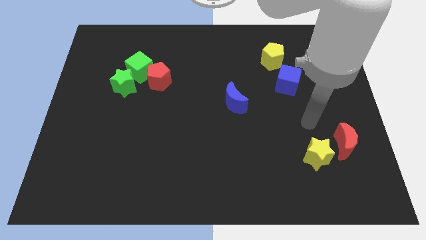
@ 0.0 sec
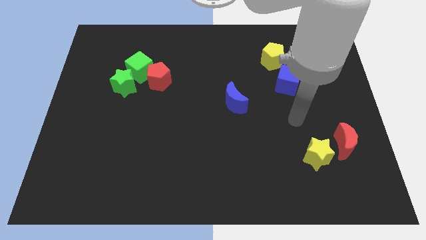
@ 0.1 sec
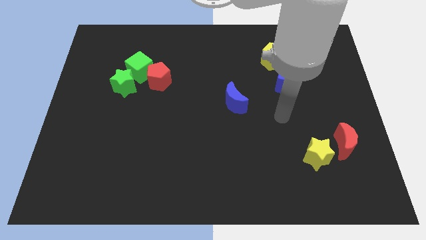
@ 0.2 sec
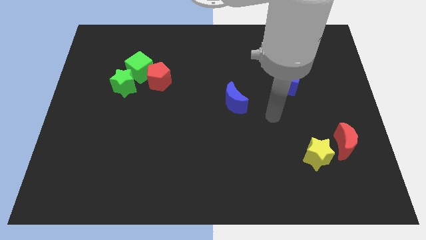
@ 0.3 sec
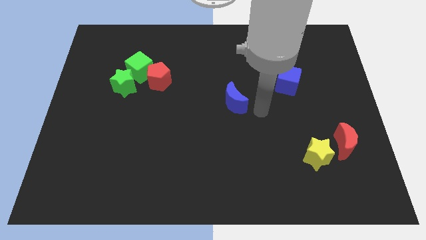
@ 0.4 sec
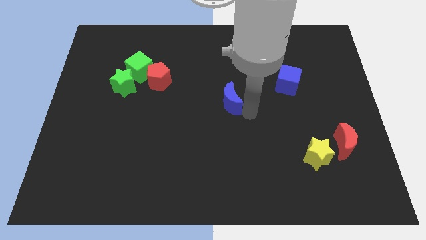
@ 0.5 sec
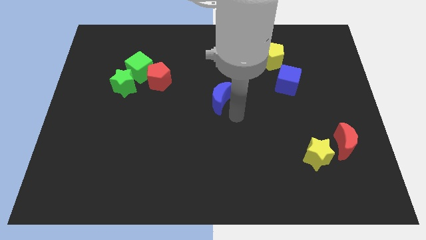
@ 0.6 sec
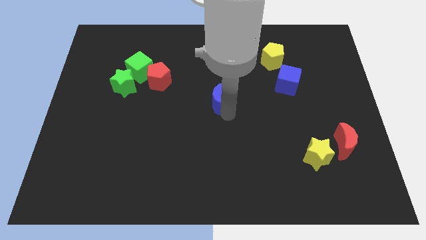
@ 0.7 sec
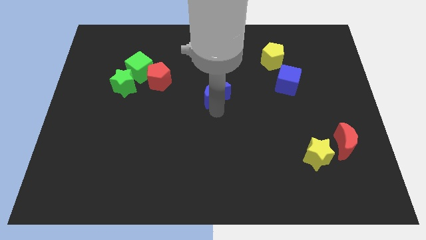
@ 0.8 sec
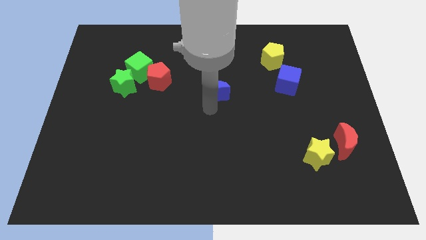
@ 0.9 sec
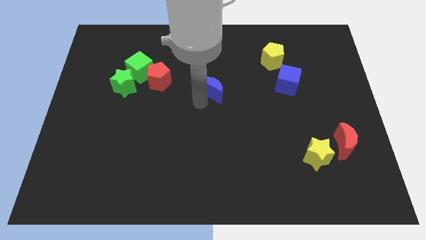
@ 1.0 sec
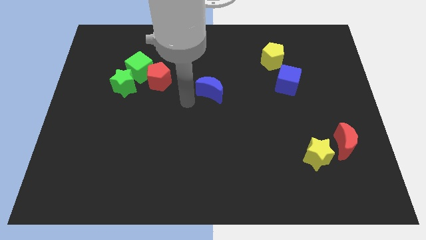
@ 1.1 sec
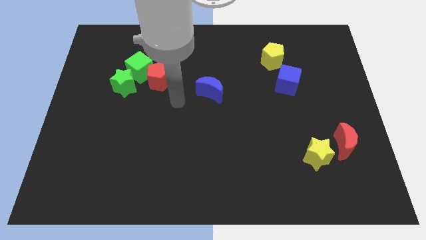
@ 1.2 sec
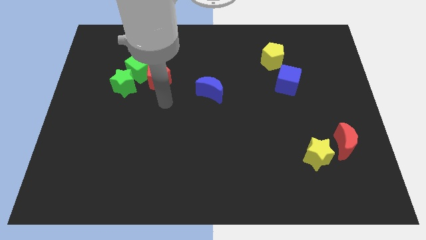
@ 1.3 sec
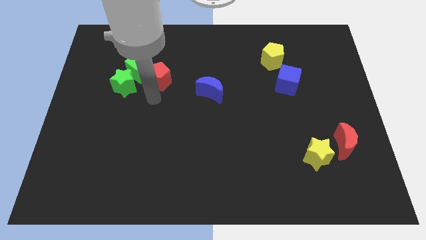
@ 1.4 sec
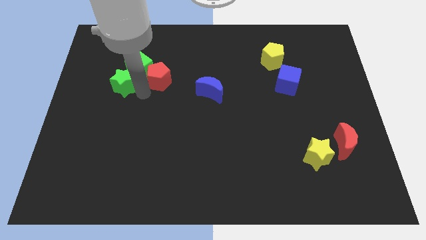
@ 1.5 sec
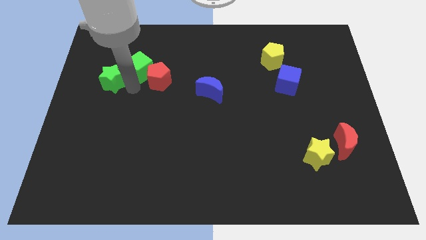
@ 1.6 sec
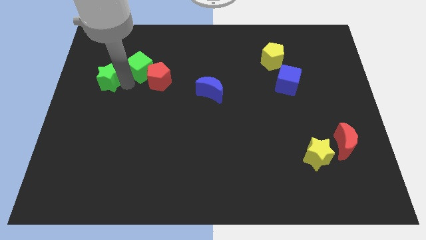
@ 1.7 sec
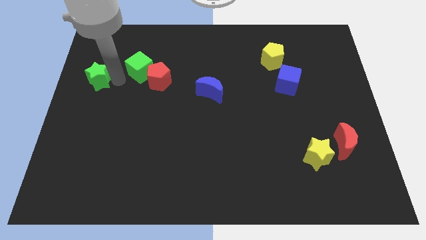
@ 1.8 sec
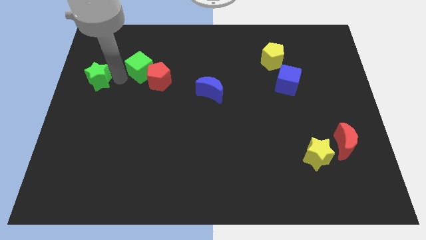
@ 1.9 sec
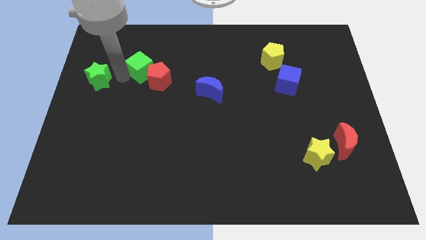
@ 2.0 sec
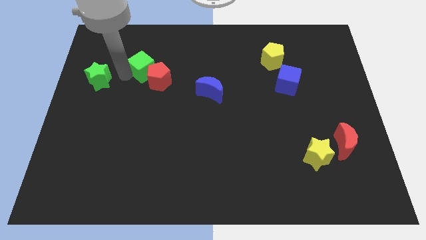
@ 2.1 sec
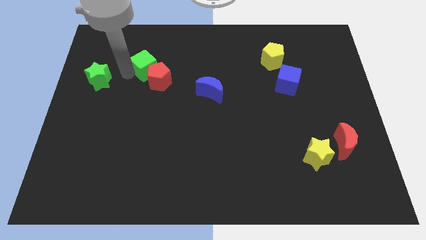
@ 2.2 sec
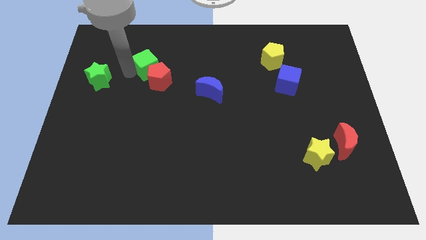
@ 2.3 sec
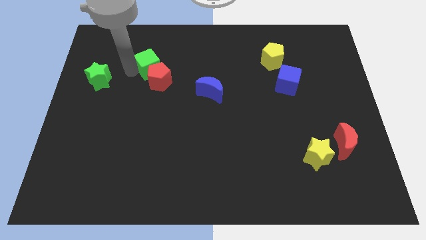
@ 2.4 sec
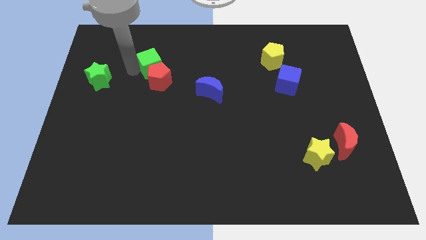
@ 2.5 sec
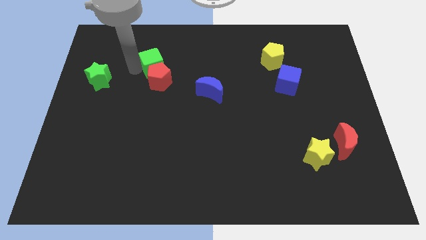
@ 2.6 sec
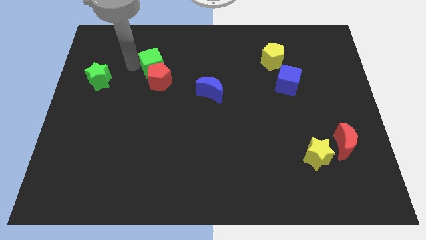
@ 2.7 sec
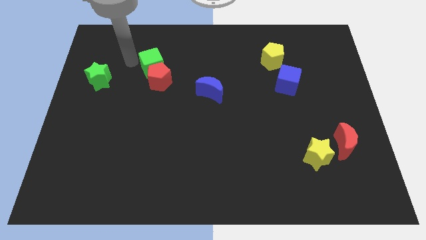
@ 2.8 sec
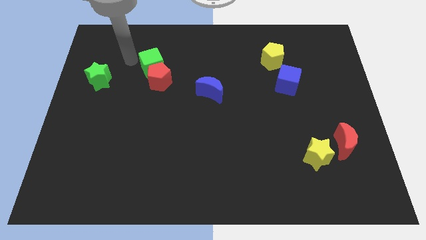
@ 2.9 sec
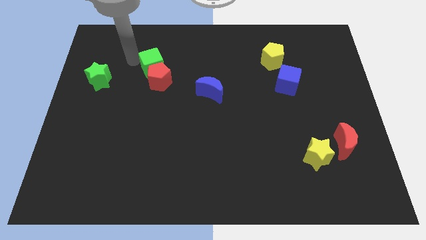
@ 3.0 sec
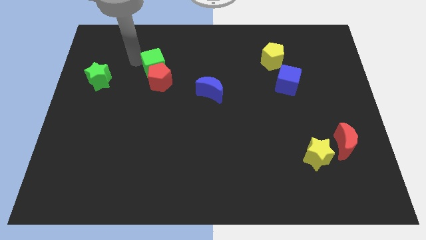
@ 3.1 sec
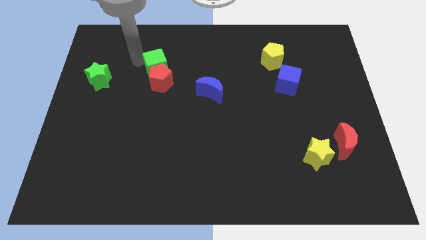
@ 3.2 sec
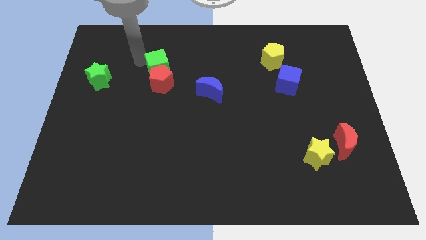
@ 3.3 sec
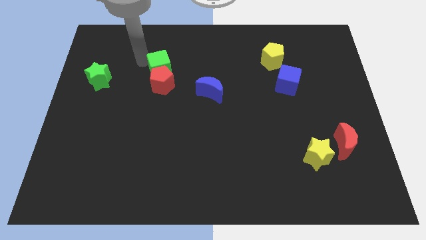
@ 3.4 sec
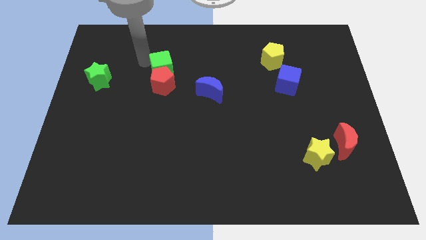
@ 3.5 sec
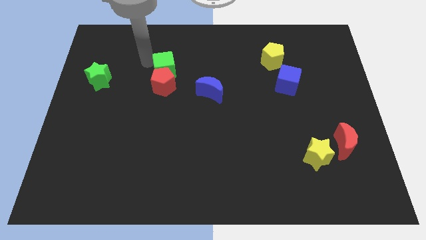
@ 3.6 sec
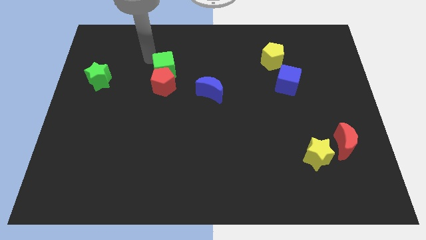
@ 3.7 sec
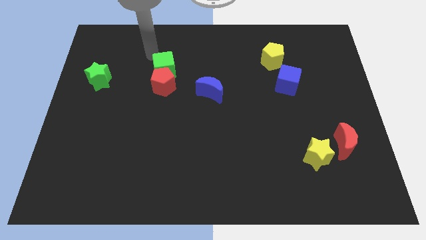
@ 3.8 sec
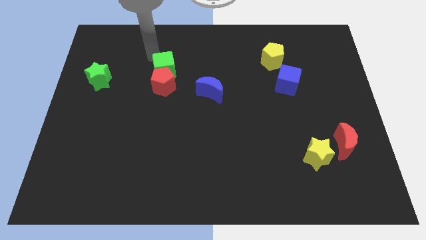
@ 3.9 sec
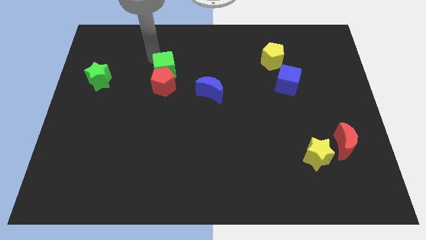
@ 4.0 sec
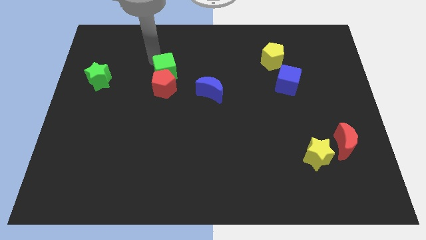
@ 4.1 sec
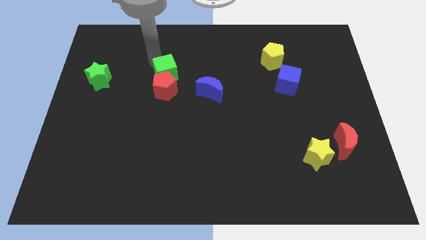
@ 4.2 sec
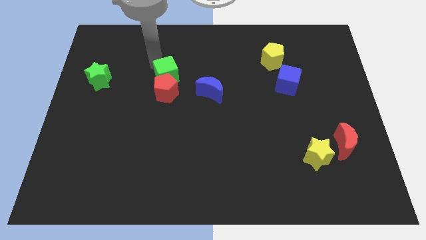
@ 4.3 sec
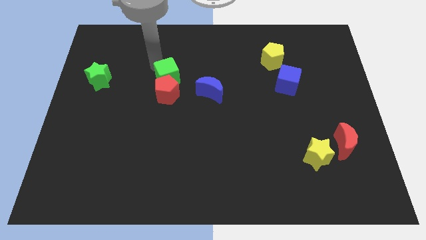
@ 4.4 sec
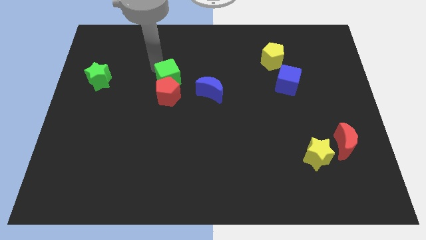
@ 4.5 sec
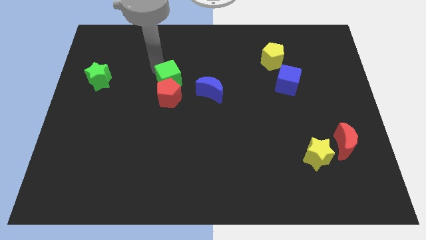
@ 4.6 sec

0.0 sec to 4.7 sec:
push the green cube down and then to the right a little

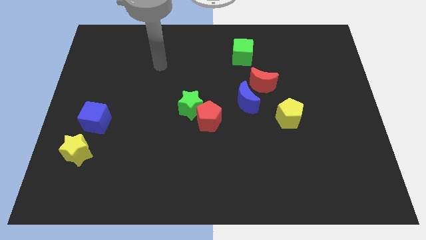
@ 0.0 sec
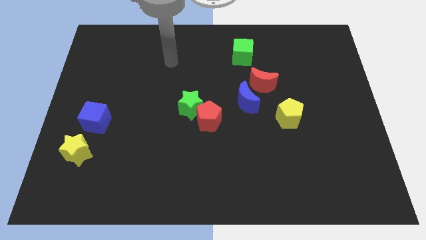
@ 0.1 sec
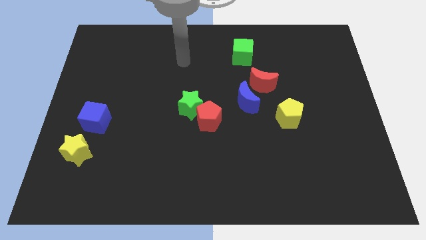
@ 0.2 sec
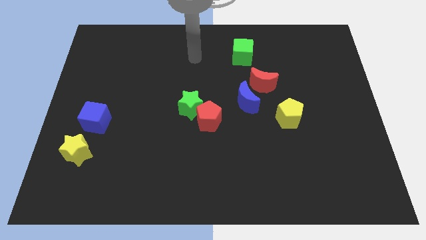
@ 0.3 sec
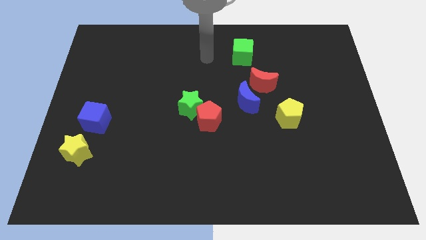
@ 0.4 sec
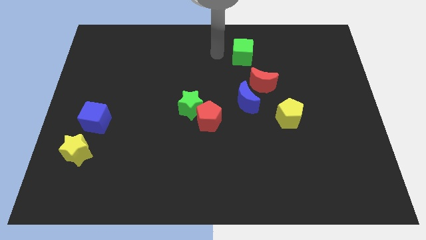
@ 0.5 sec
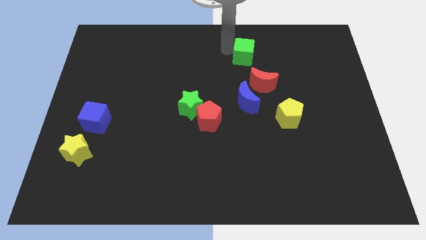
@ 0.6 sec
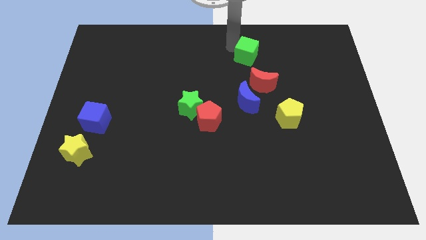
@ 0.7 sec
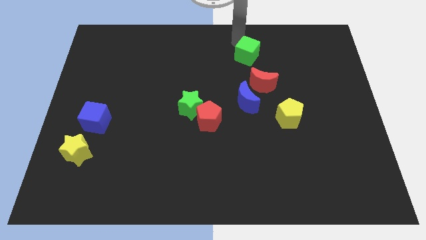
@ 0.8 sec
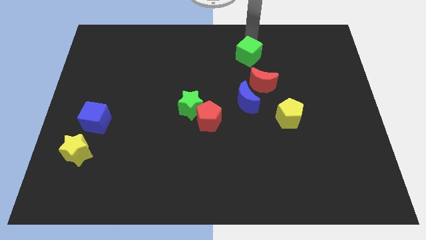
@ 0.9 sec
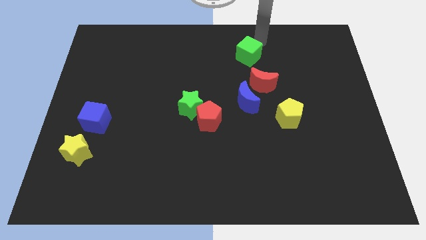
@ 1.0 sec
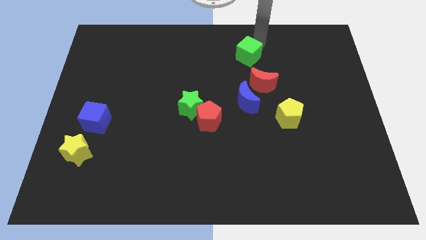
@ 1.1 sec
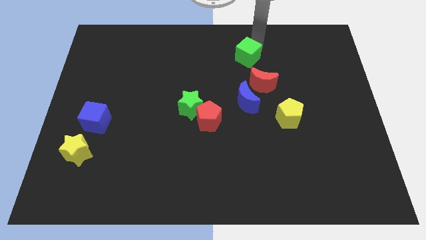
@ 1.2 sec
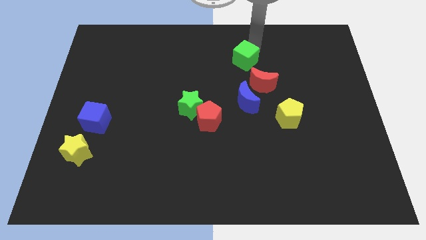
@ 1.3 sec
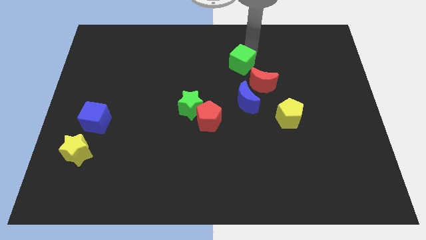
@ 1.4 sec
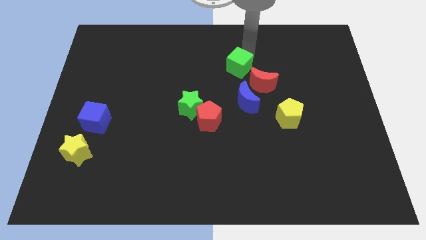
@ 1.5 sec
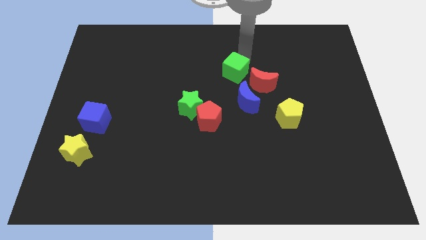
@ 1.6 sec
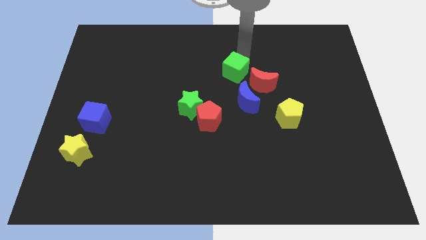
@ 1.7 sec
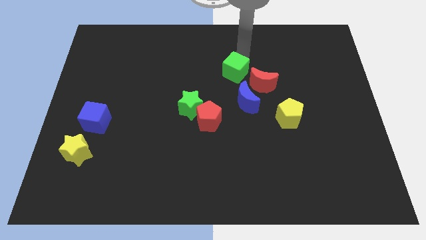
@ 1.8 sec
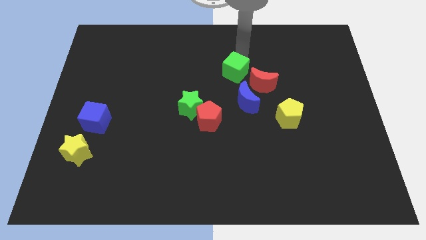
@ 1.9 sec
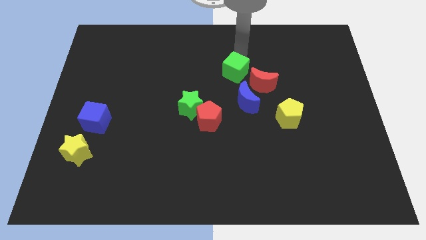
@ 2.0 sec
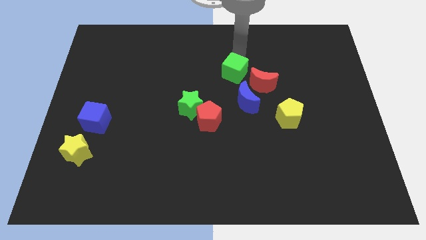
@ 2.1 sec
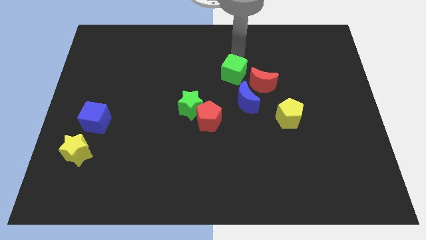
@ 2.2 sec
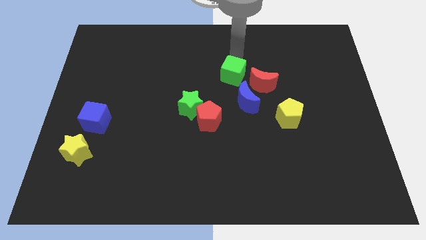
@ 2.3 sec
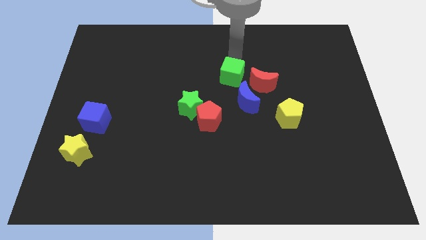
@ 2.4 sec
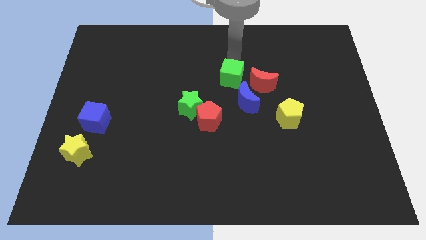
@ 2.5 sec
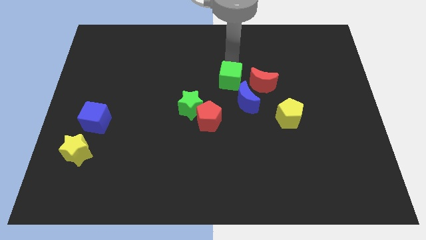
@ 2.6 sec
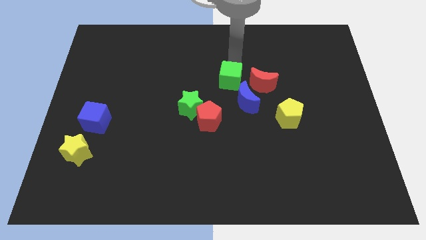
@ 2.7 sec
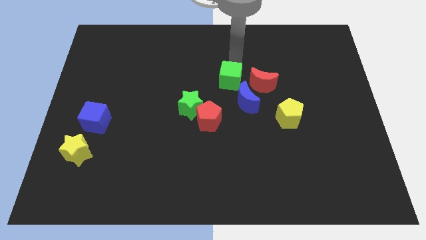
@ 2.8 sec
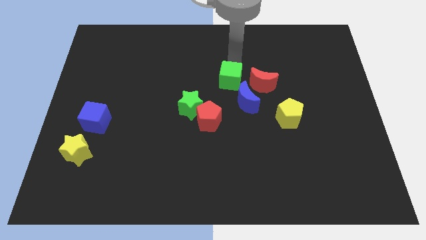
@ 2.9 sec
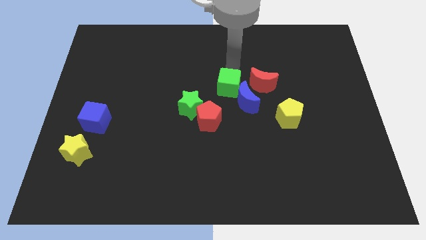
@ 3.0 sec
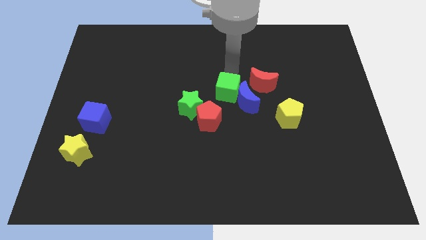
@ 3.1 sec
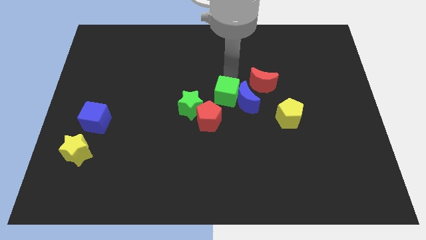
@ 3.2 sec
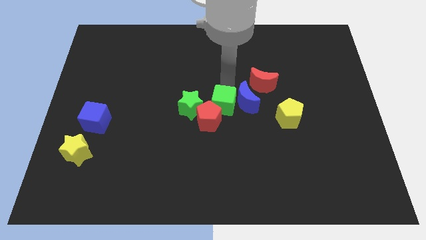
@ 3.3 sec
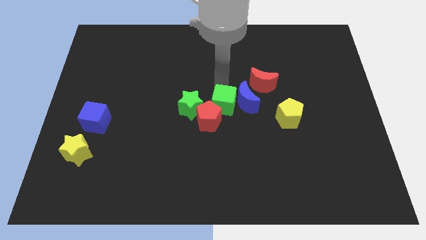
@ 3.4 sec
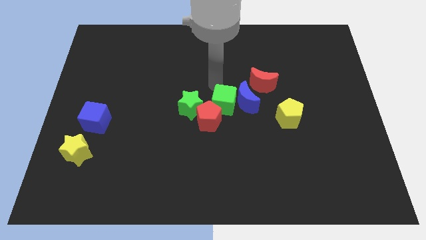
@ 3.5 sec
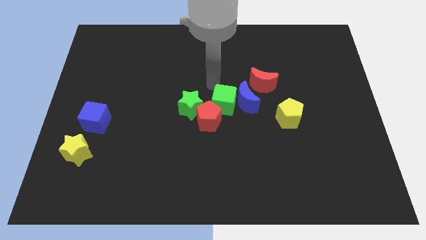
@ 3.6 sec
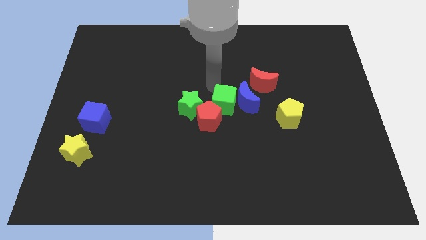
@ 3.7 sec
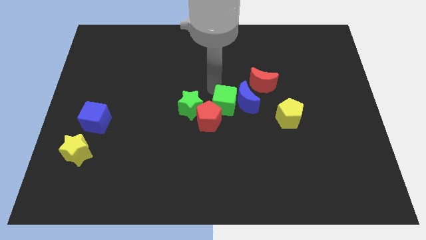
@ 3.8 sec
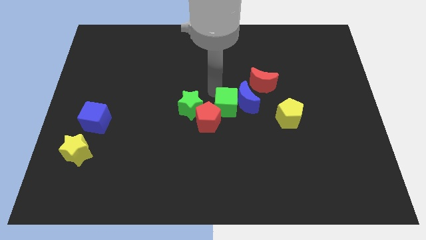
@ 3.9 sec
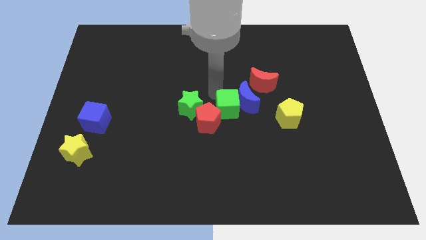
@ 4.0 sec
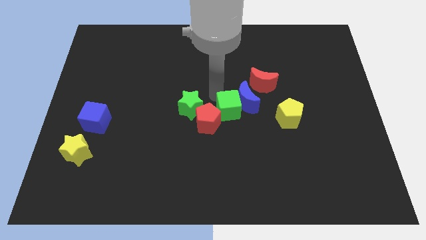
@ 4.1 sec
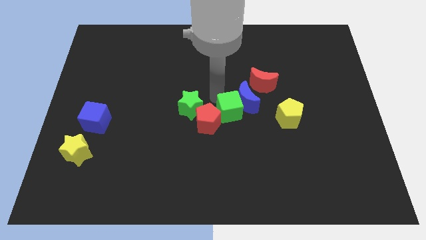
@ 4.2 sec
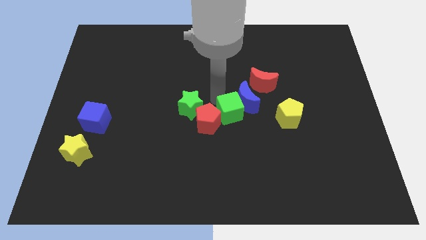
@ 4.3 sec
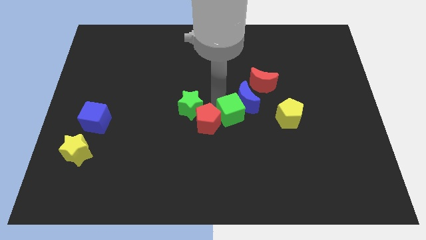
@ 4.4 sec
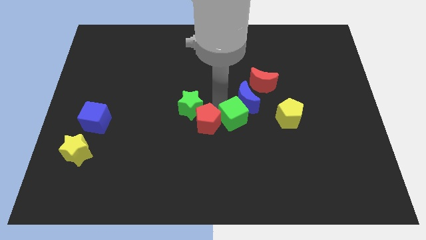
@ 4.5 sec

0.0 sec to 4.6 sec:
push the green cube downwards
